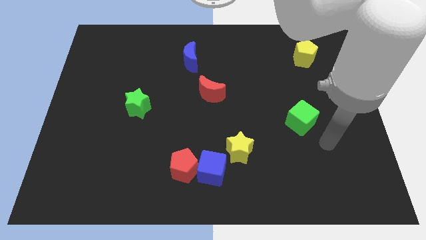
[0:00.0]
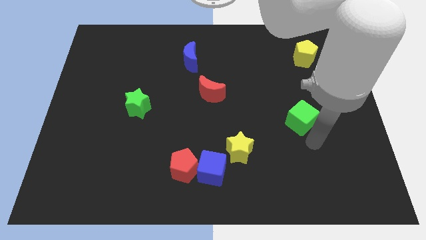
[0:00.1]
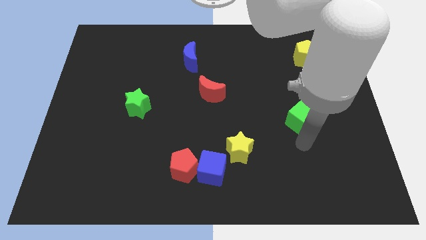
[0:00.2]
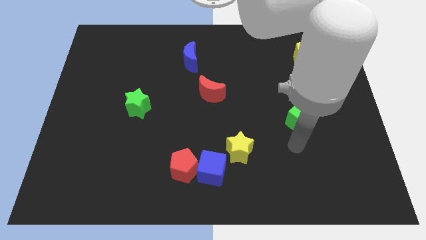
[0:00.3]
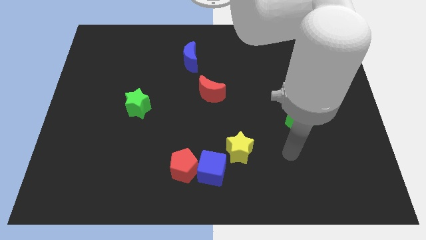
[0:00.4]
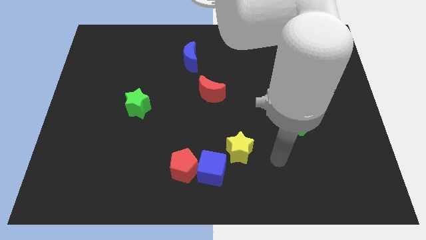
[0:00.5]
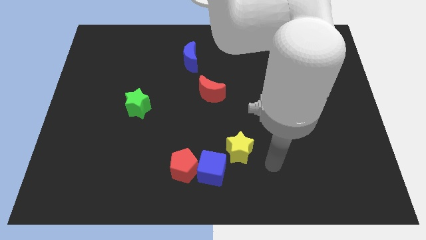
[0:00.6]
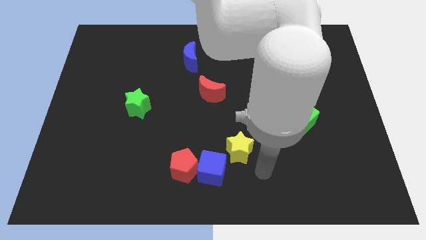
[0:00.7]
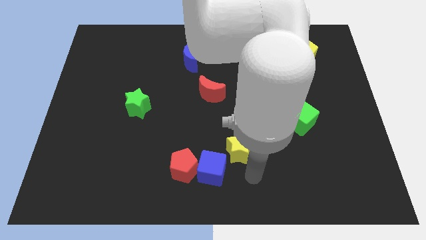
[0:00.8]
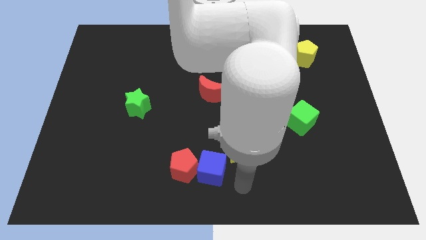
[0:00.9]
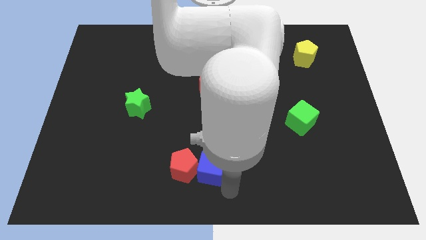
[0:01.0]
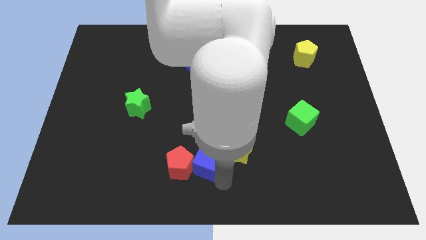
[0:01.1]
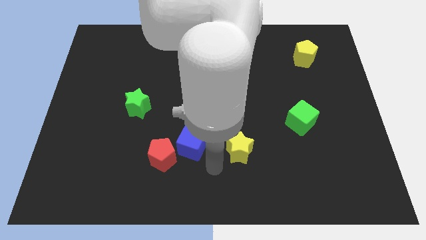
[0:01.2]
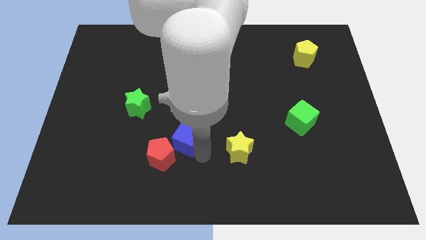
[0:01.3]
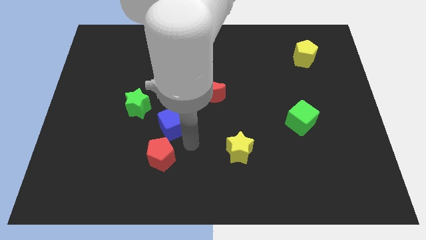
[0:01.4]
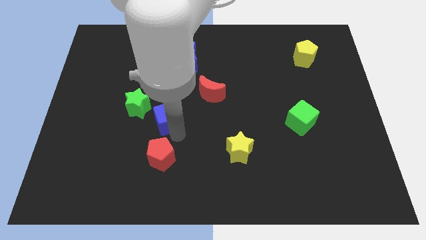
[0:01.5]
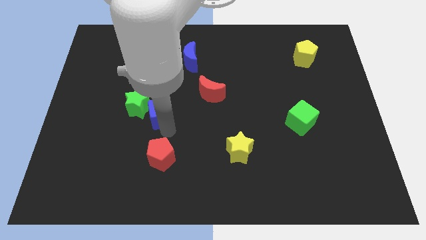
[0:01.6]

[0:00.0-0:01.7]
separate the red pentagon from the blue cube

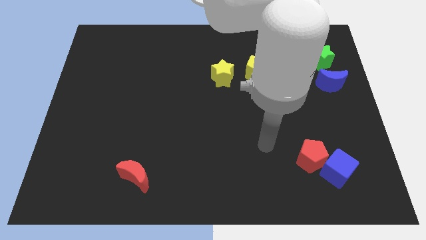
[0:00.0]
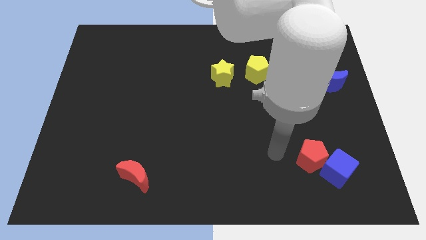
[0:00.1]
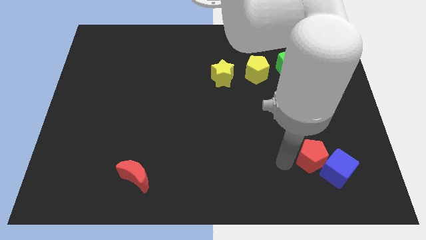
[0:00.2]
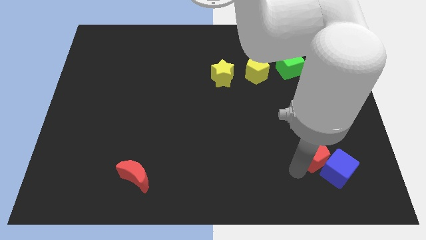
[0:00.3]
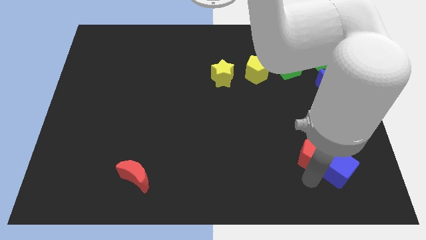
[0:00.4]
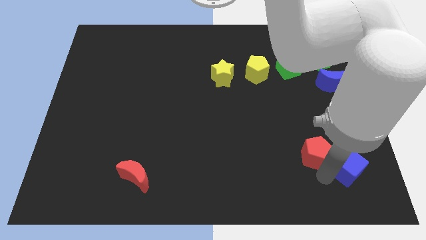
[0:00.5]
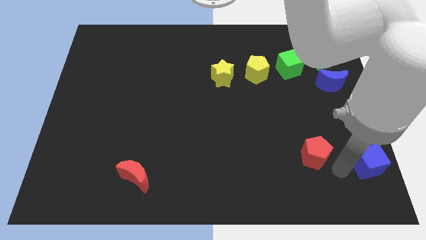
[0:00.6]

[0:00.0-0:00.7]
move the red pentagon away from the blue cube

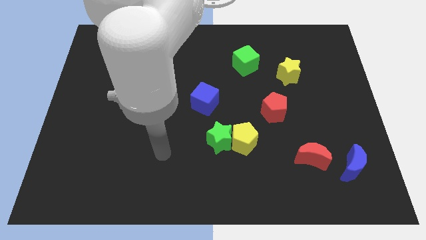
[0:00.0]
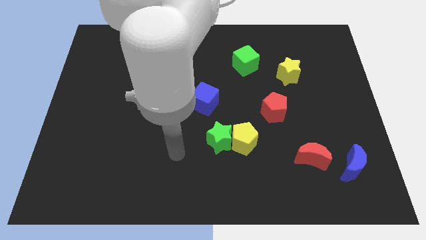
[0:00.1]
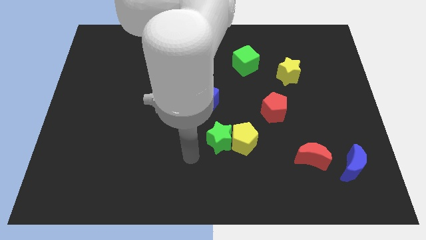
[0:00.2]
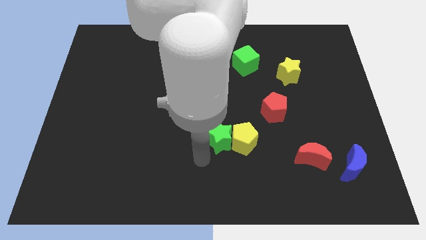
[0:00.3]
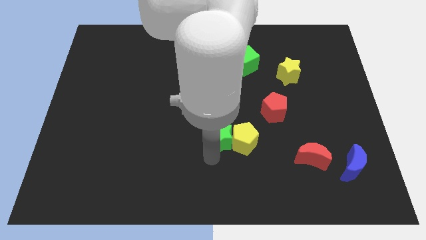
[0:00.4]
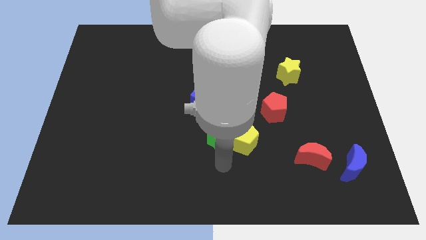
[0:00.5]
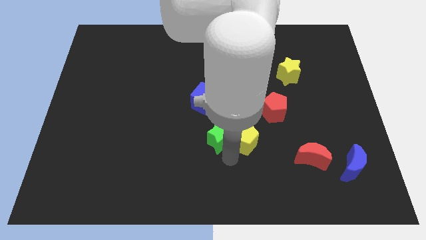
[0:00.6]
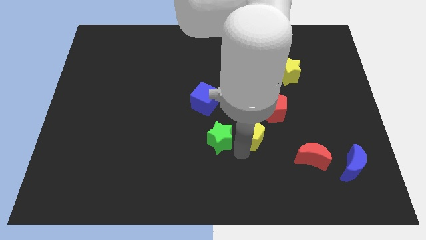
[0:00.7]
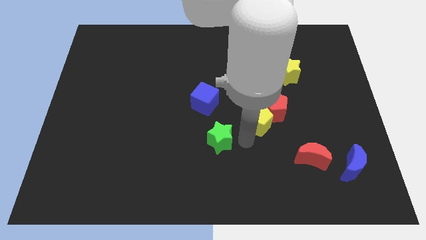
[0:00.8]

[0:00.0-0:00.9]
separate the green star from the yellow pentagon

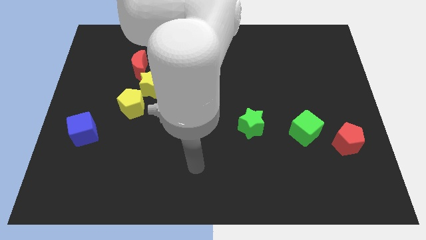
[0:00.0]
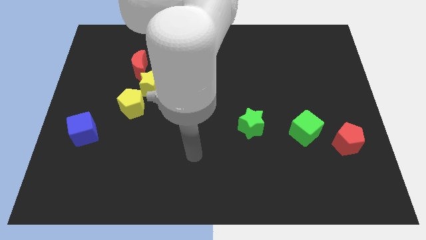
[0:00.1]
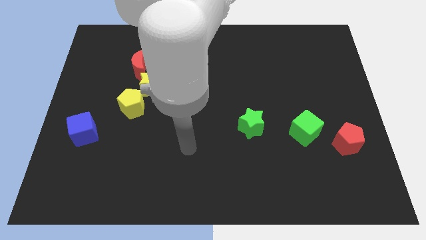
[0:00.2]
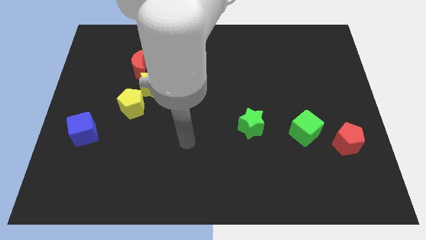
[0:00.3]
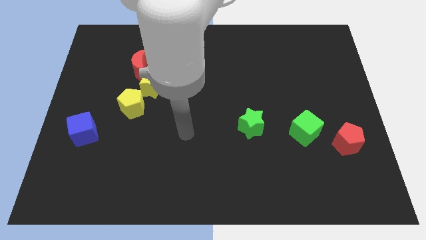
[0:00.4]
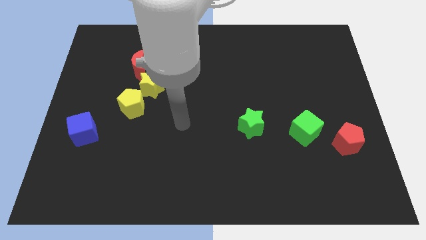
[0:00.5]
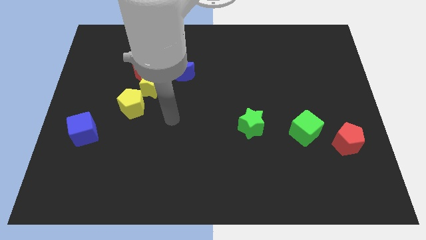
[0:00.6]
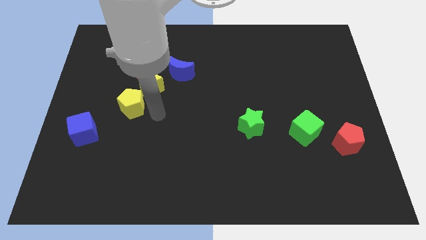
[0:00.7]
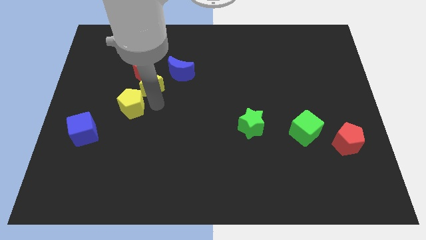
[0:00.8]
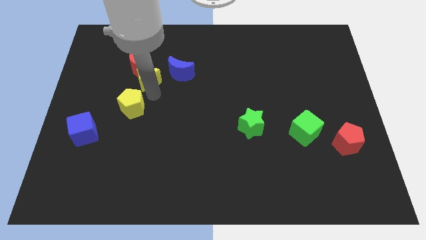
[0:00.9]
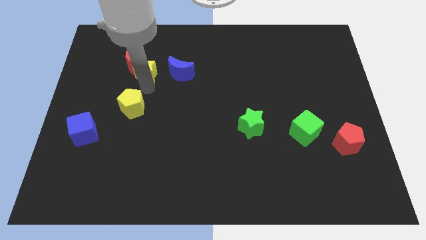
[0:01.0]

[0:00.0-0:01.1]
pull the yellow pentagon apart from the yellow star

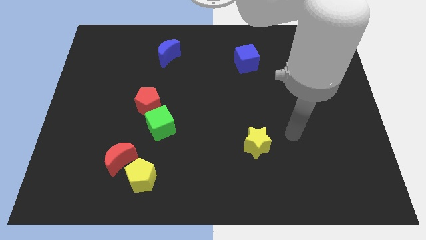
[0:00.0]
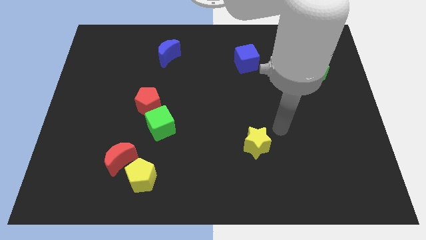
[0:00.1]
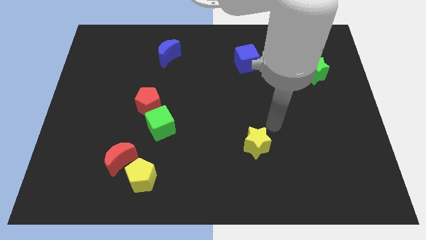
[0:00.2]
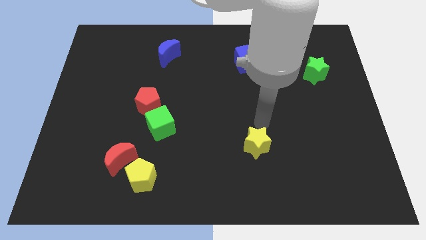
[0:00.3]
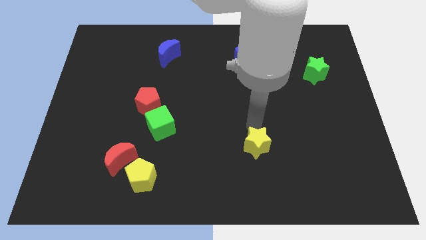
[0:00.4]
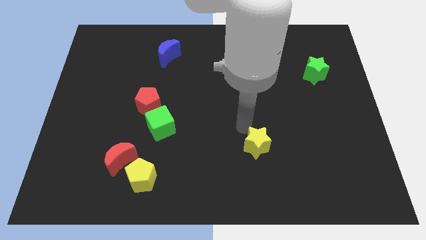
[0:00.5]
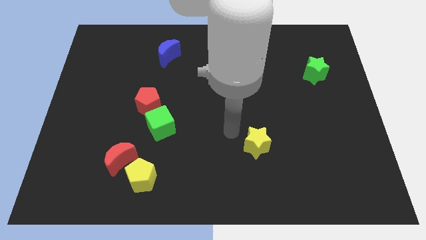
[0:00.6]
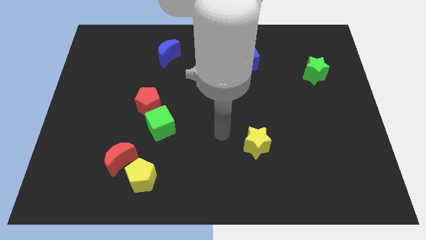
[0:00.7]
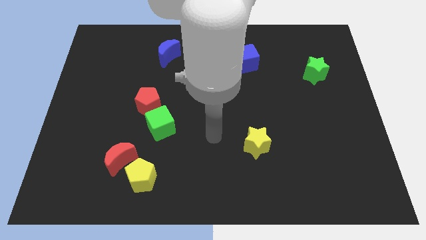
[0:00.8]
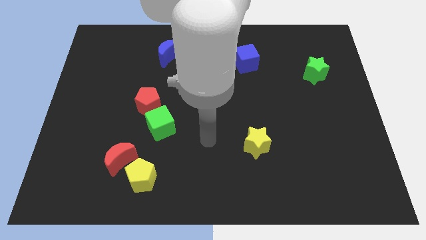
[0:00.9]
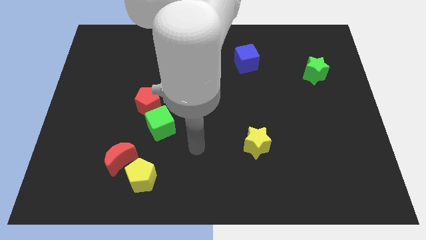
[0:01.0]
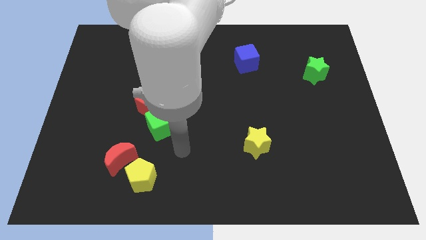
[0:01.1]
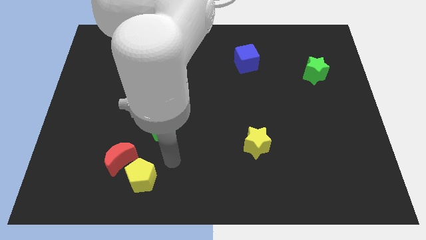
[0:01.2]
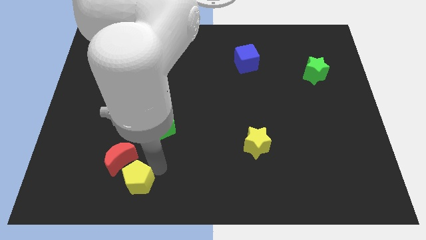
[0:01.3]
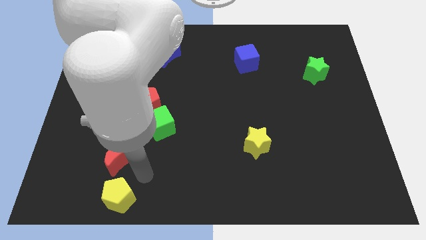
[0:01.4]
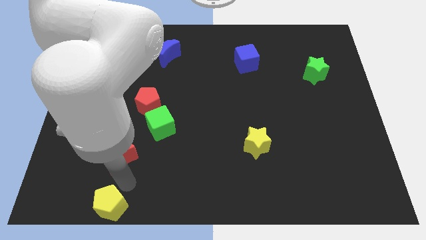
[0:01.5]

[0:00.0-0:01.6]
move the red moon away from the yellow pentagon

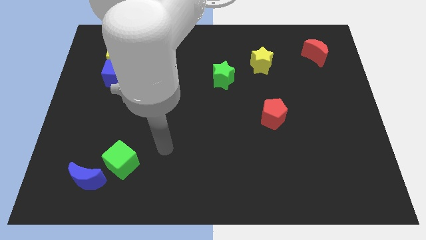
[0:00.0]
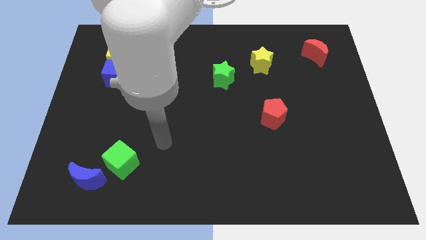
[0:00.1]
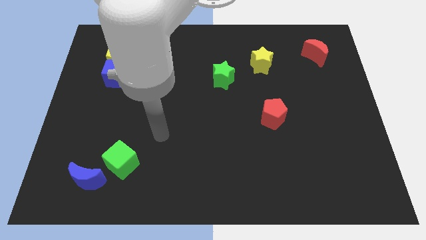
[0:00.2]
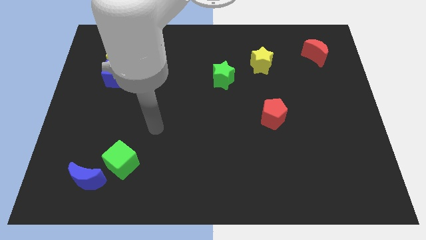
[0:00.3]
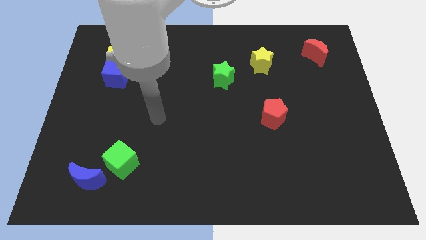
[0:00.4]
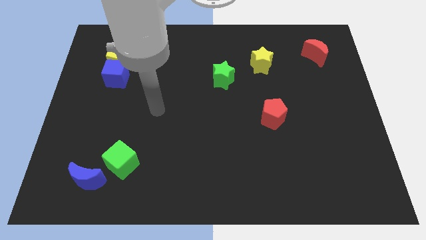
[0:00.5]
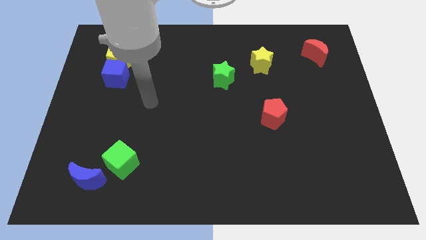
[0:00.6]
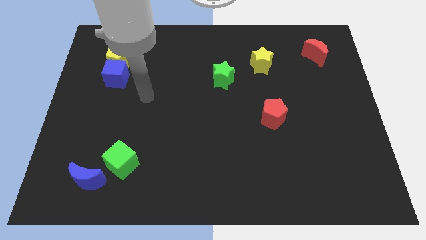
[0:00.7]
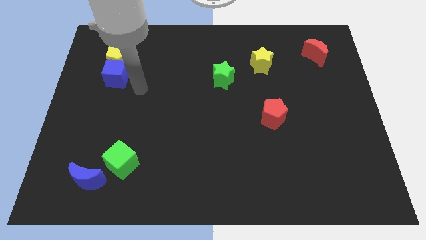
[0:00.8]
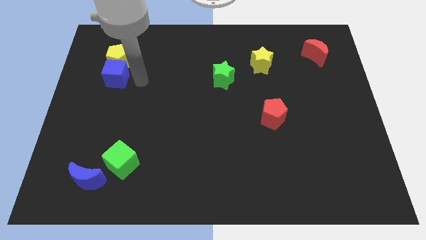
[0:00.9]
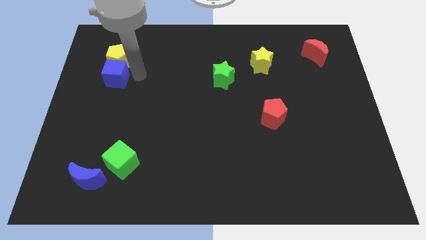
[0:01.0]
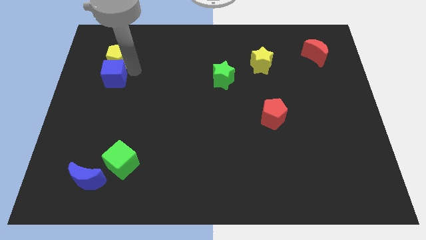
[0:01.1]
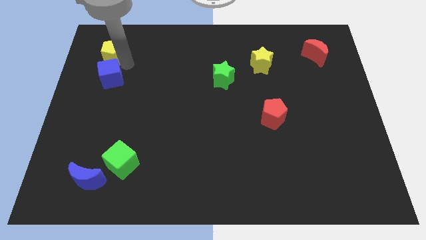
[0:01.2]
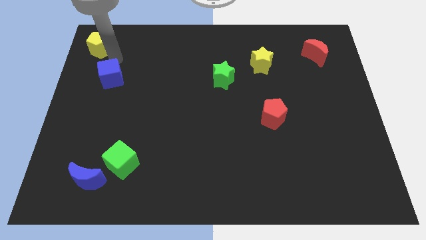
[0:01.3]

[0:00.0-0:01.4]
move the blue cube away from the yellow pentagon

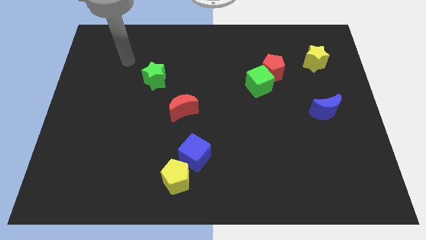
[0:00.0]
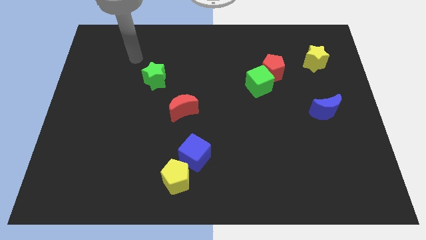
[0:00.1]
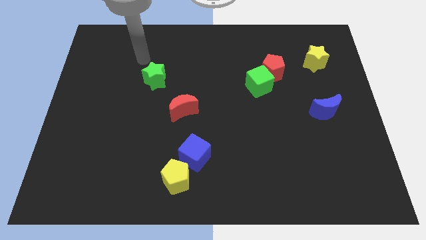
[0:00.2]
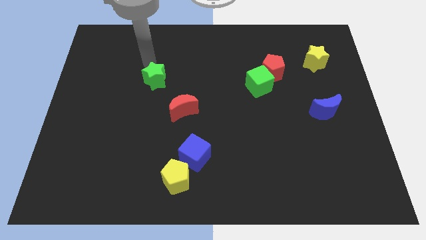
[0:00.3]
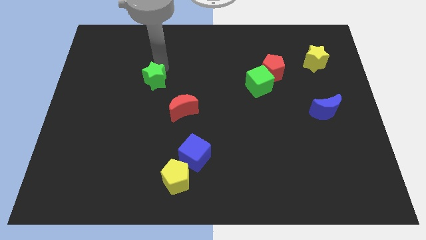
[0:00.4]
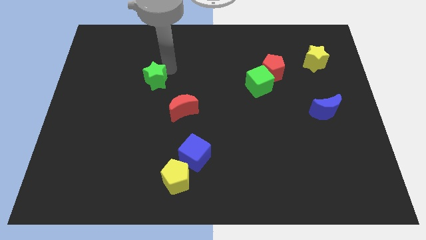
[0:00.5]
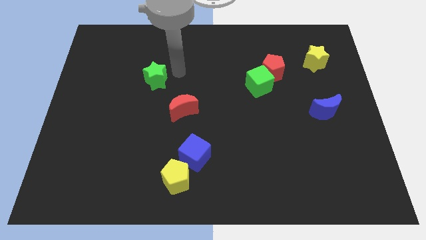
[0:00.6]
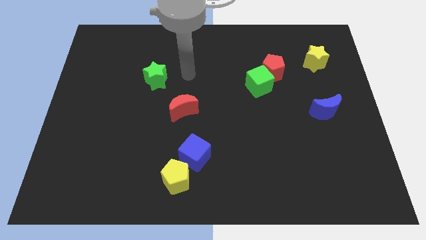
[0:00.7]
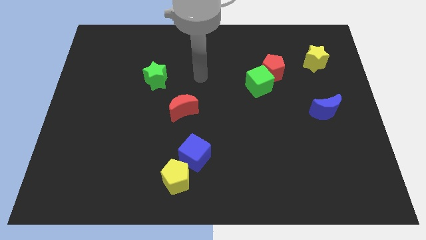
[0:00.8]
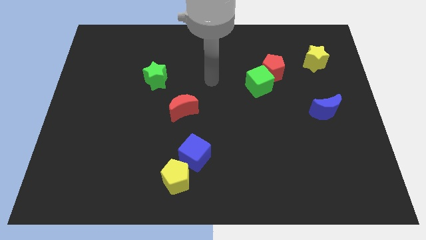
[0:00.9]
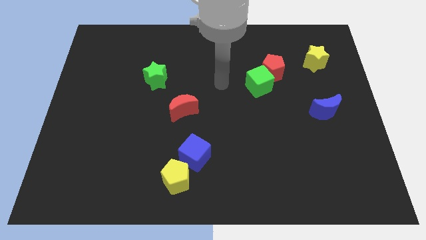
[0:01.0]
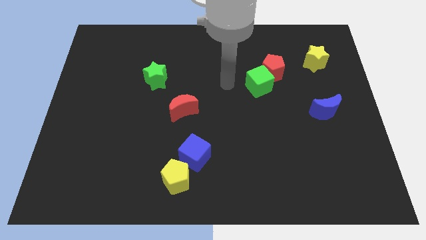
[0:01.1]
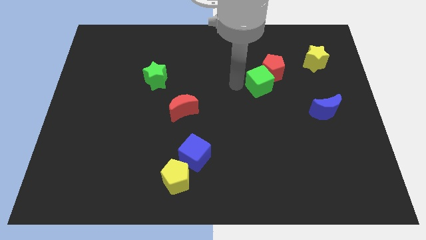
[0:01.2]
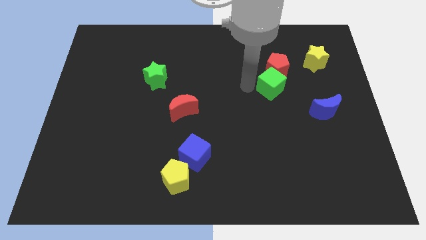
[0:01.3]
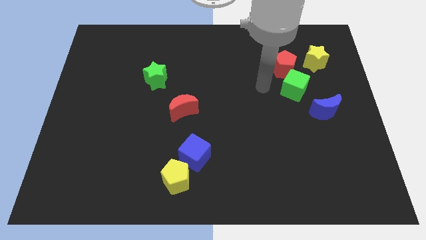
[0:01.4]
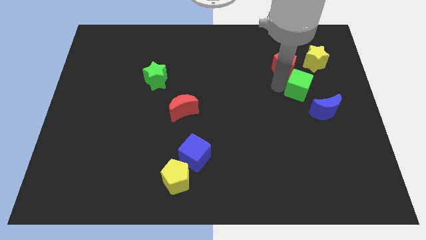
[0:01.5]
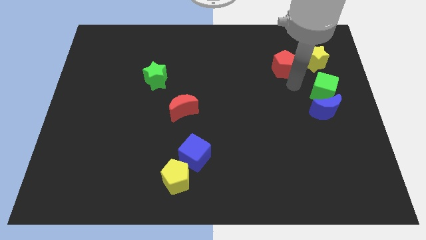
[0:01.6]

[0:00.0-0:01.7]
move the red pentagon away from the green cube

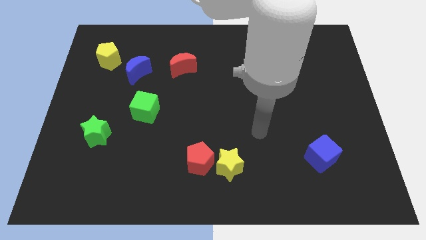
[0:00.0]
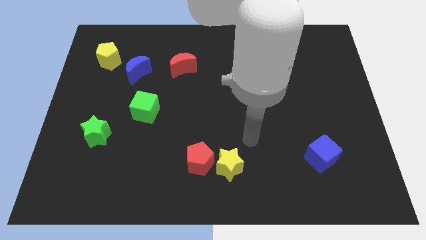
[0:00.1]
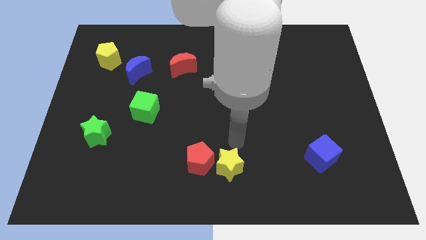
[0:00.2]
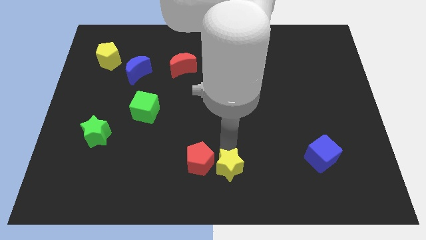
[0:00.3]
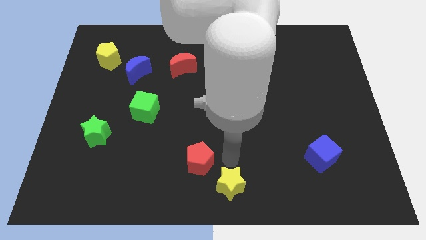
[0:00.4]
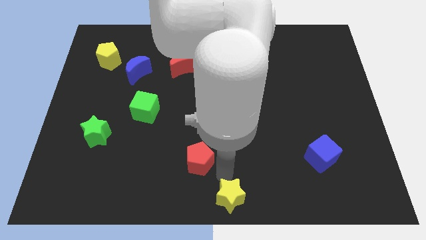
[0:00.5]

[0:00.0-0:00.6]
move the red pentagon away from the yellow star
